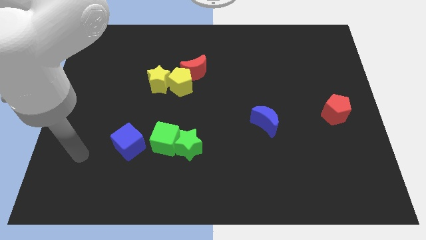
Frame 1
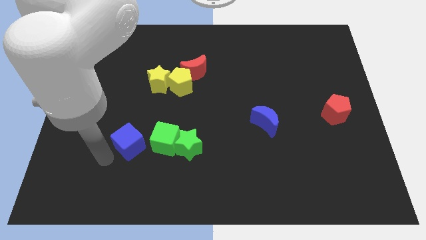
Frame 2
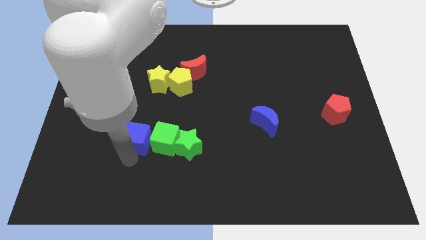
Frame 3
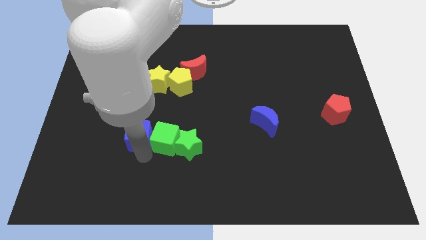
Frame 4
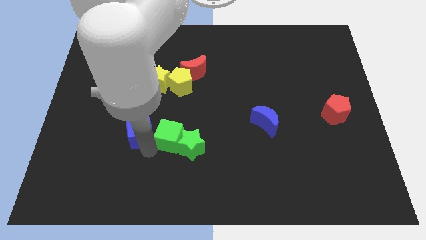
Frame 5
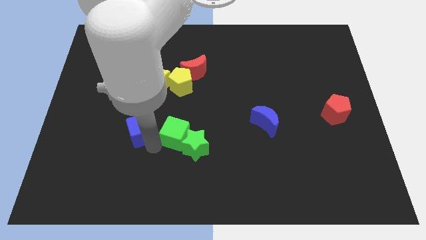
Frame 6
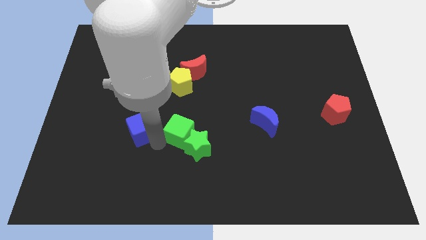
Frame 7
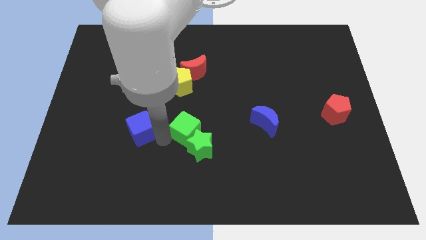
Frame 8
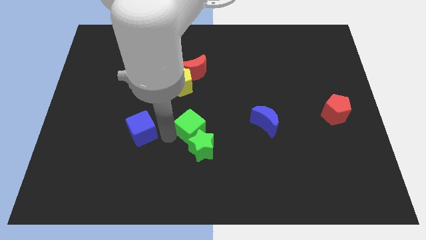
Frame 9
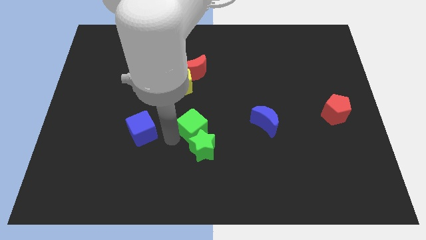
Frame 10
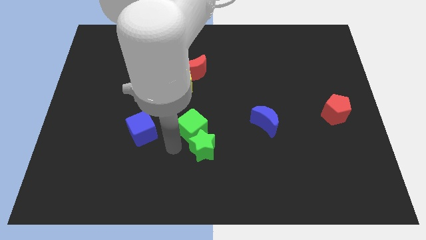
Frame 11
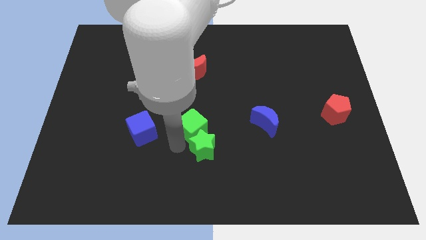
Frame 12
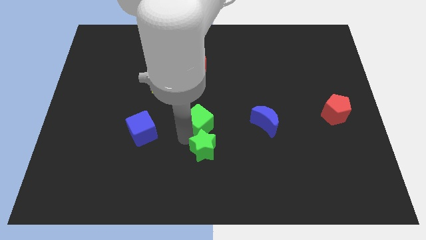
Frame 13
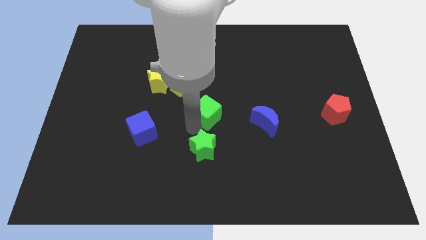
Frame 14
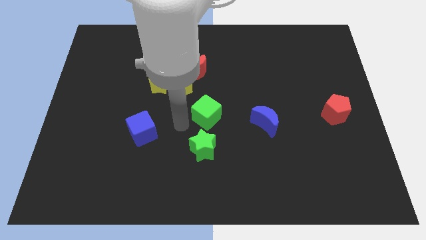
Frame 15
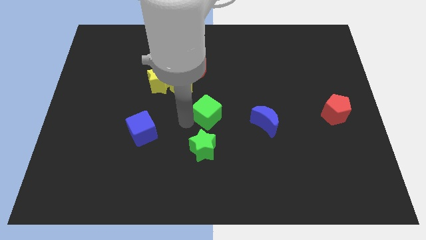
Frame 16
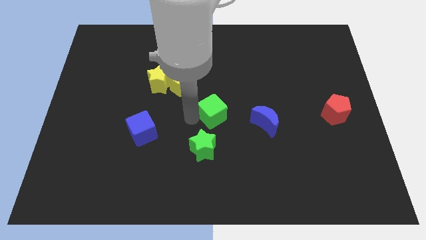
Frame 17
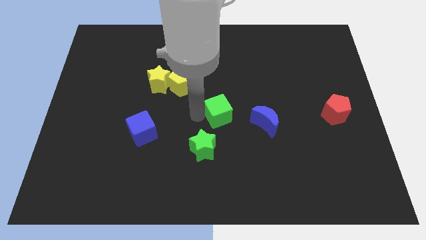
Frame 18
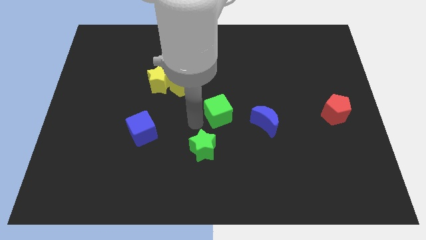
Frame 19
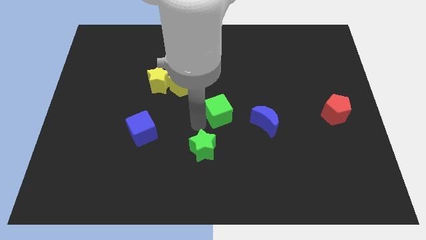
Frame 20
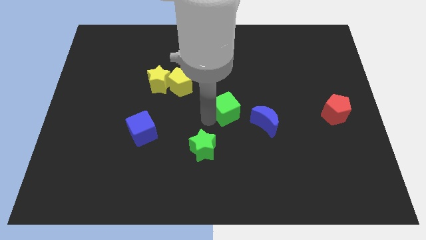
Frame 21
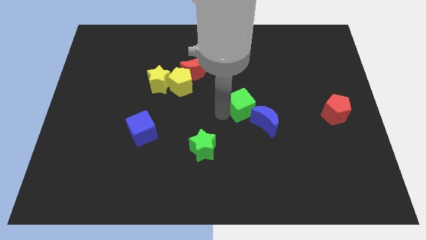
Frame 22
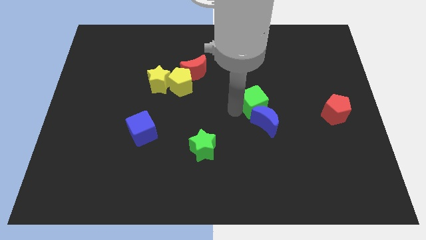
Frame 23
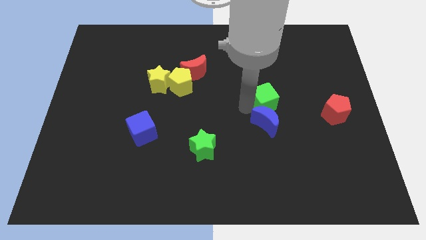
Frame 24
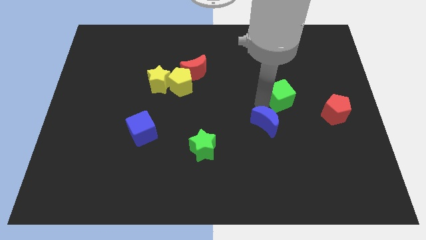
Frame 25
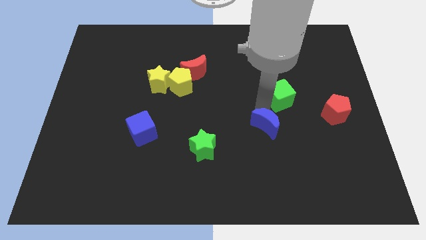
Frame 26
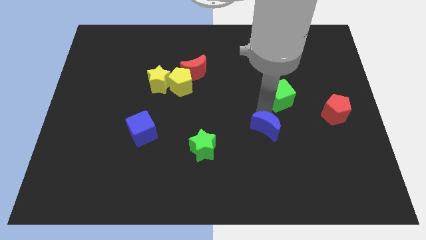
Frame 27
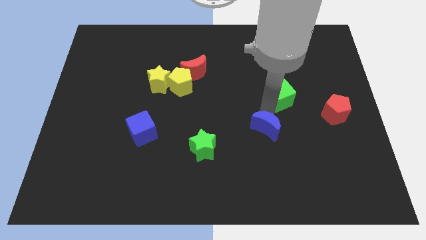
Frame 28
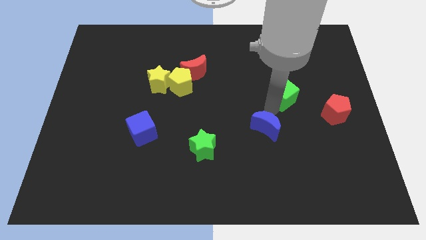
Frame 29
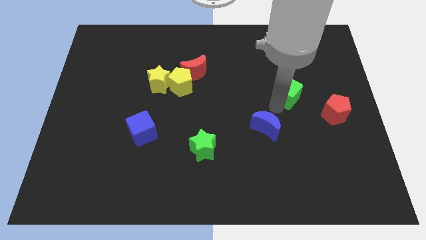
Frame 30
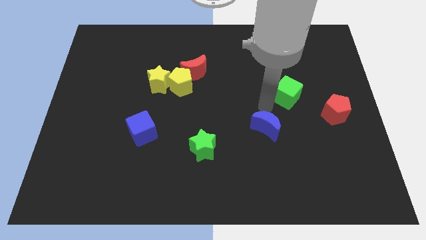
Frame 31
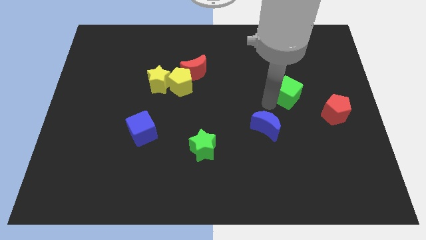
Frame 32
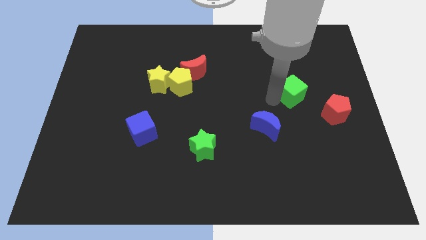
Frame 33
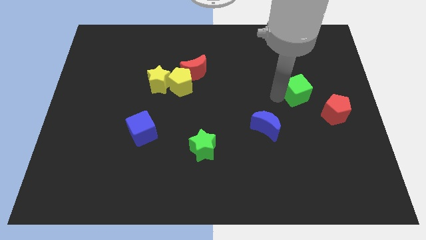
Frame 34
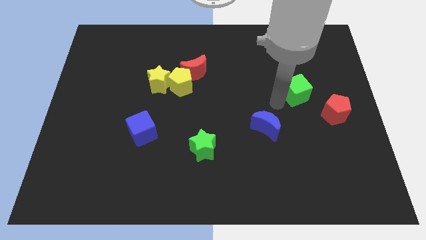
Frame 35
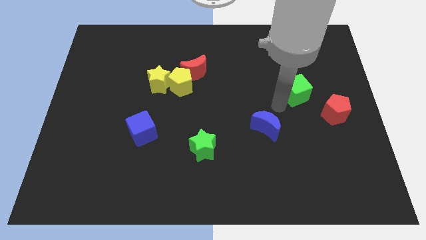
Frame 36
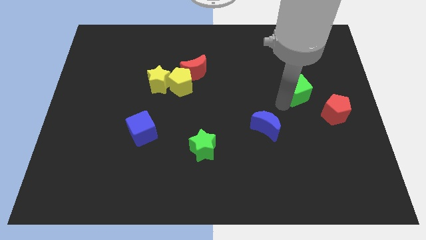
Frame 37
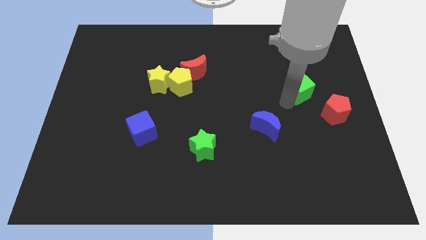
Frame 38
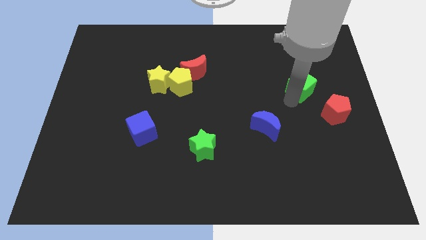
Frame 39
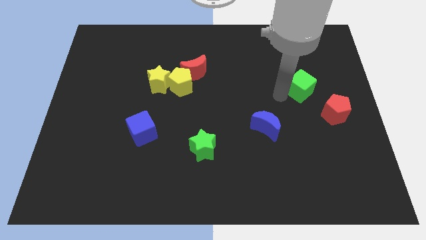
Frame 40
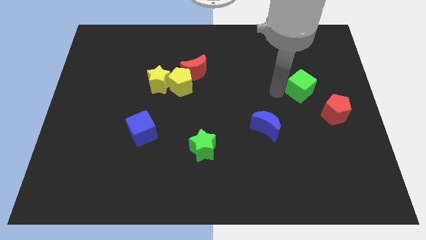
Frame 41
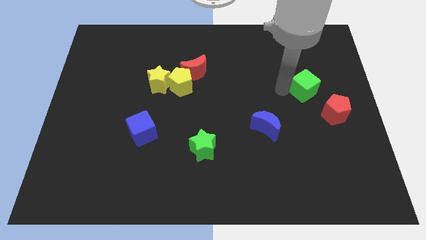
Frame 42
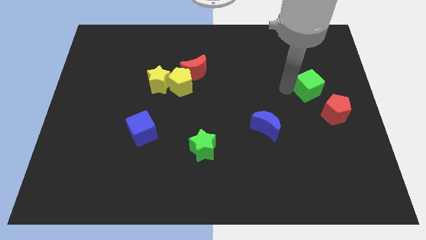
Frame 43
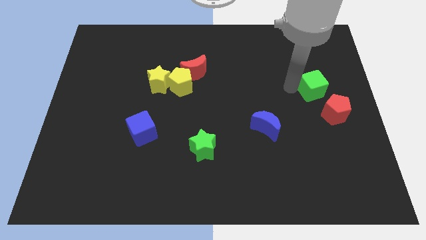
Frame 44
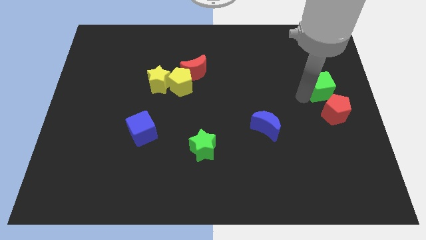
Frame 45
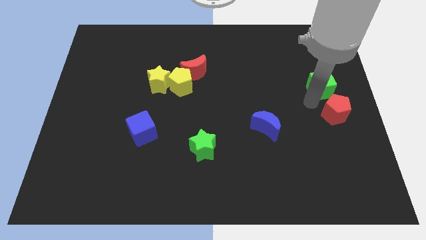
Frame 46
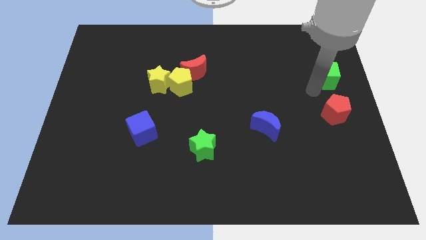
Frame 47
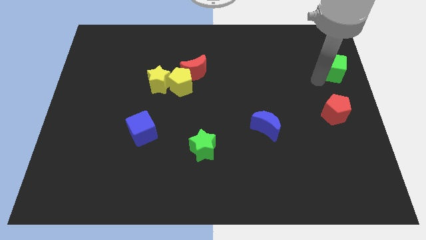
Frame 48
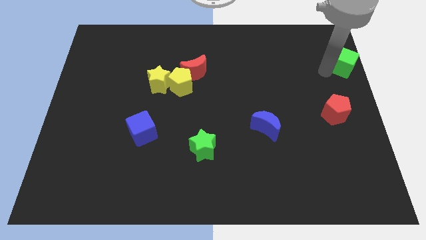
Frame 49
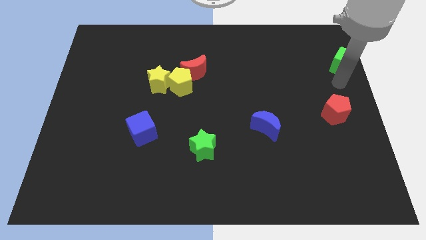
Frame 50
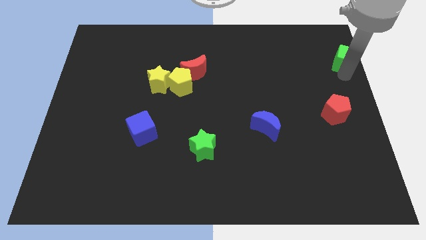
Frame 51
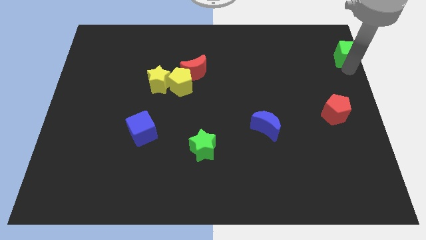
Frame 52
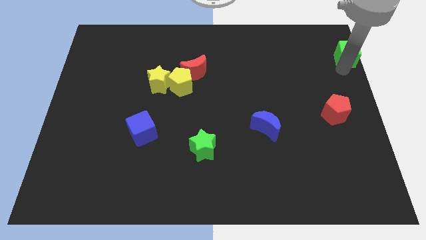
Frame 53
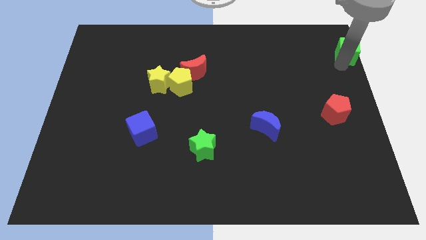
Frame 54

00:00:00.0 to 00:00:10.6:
put the green cube to the top right corner

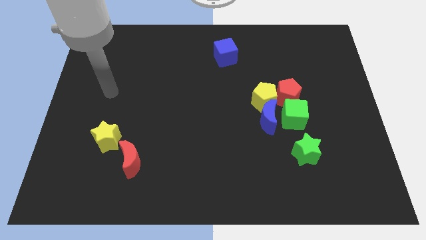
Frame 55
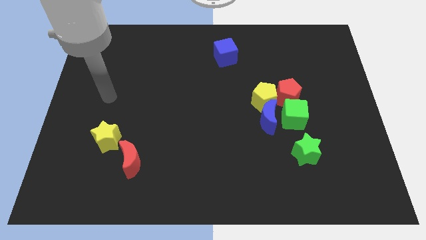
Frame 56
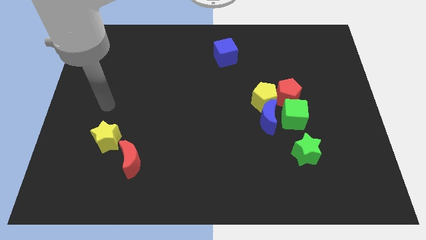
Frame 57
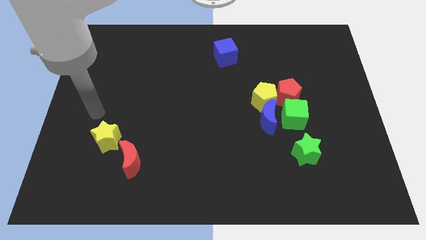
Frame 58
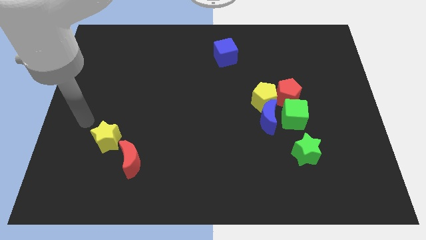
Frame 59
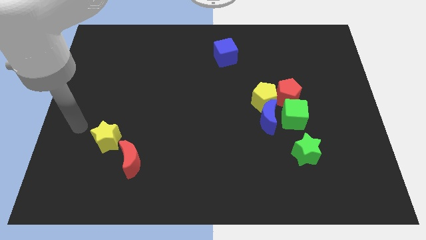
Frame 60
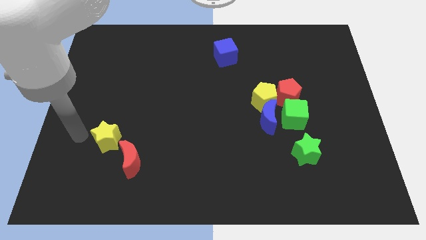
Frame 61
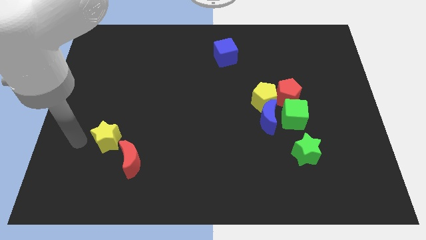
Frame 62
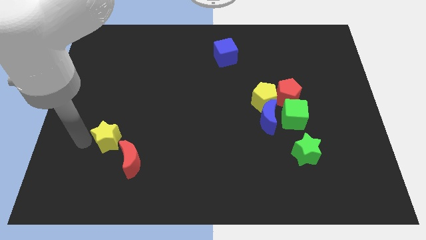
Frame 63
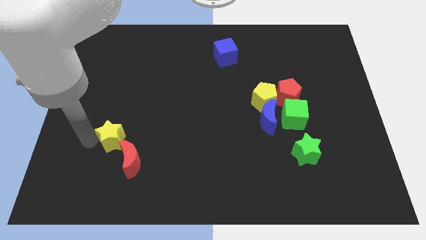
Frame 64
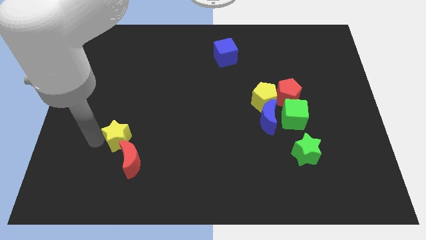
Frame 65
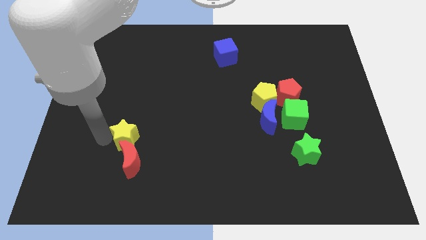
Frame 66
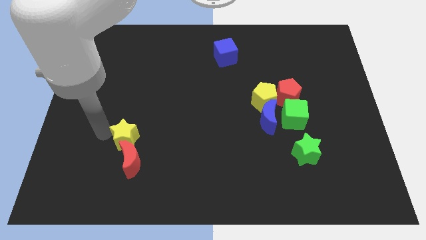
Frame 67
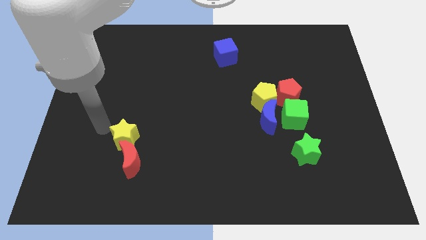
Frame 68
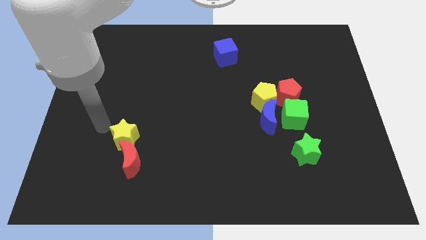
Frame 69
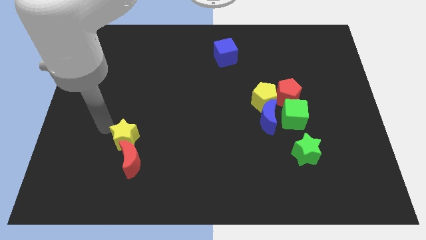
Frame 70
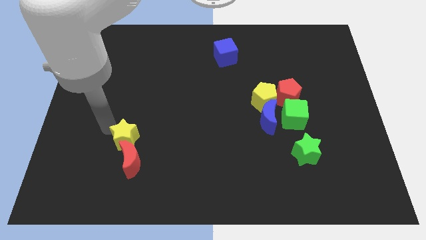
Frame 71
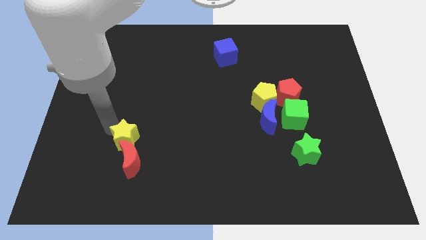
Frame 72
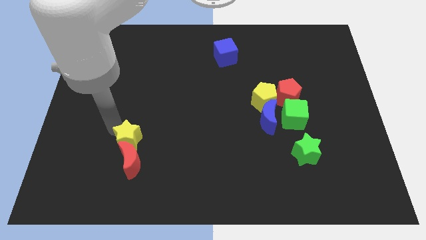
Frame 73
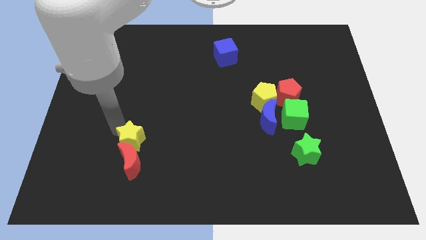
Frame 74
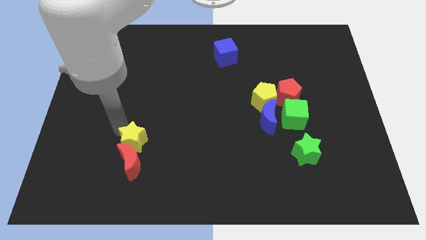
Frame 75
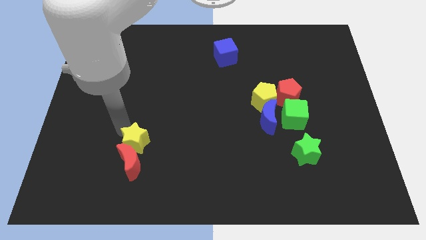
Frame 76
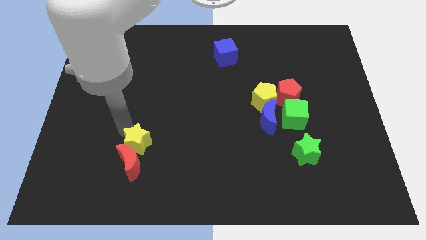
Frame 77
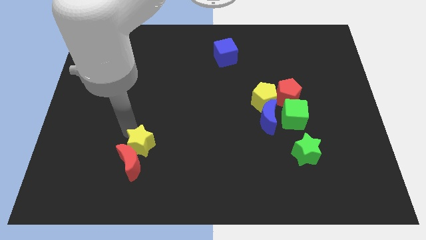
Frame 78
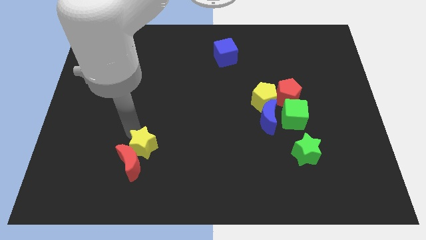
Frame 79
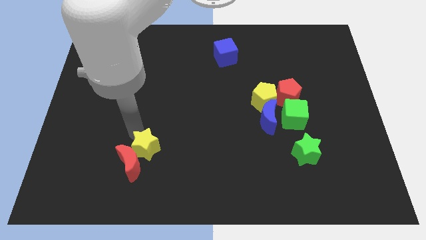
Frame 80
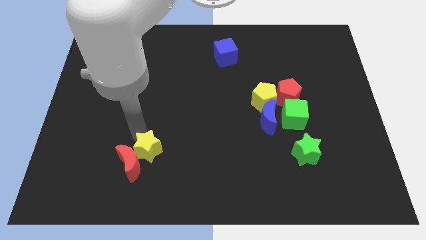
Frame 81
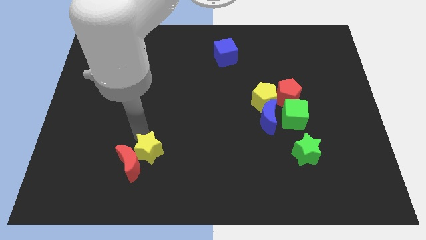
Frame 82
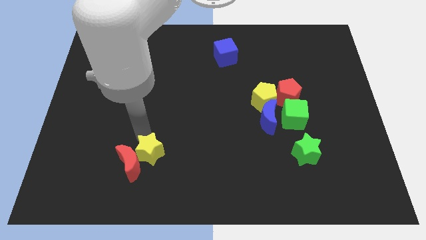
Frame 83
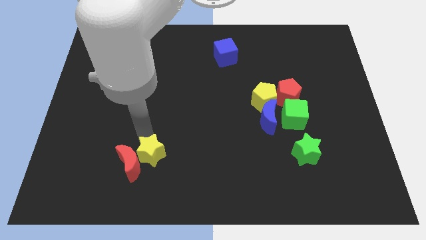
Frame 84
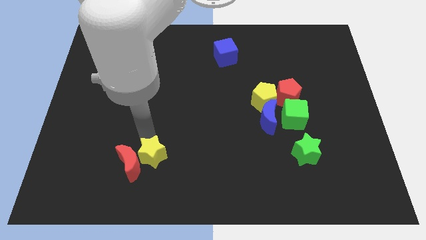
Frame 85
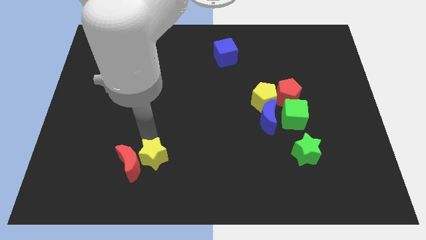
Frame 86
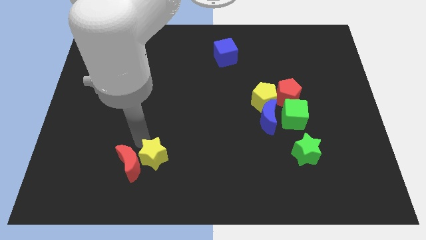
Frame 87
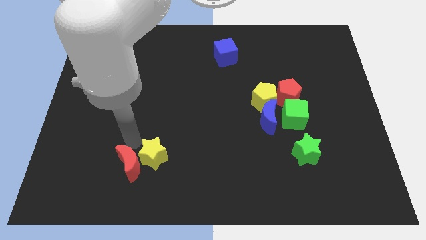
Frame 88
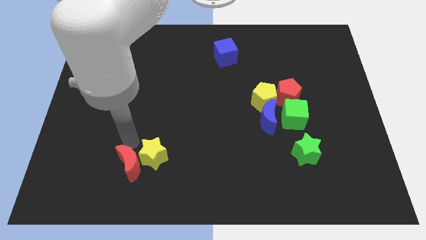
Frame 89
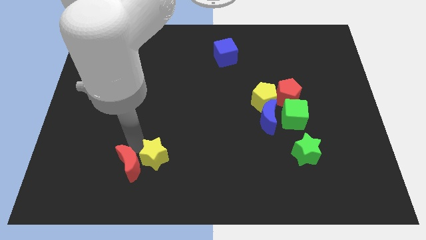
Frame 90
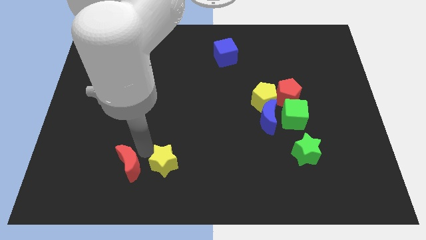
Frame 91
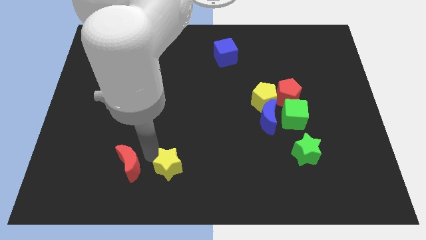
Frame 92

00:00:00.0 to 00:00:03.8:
put the yellow star to the bottom
